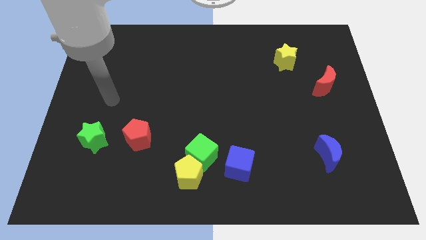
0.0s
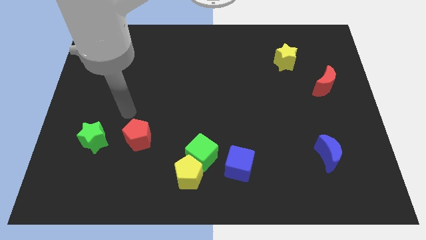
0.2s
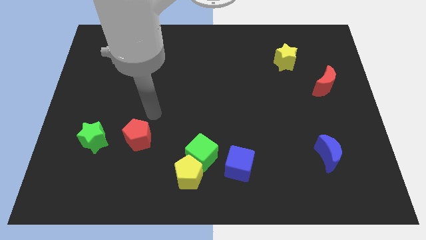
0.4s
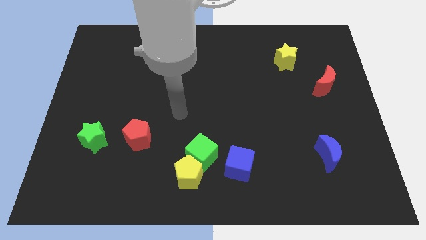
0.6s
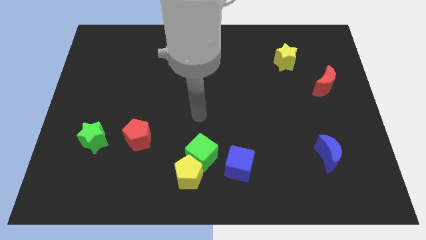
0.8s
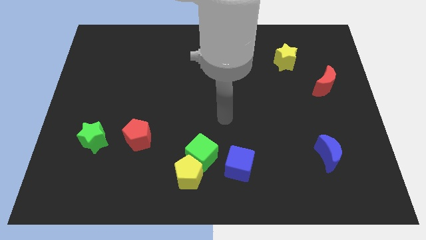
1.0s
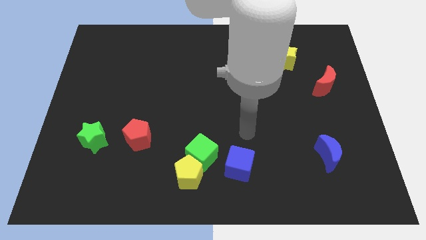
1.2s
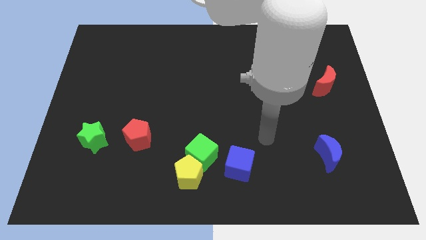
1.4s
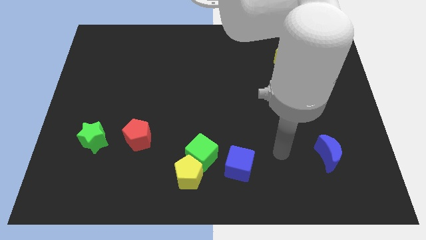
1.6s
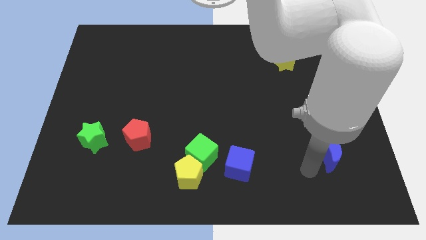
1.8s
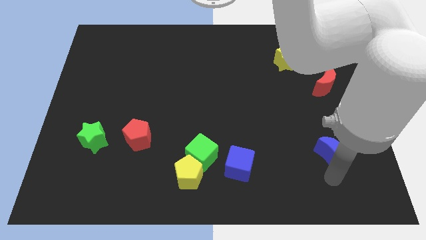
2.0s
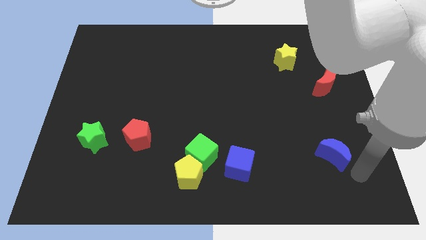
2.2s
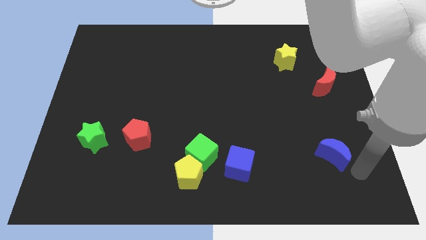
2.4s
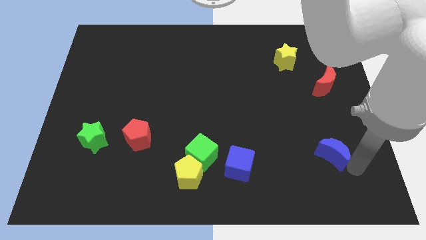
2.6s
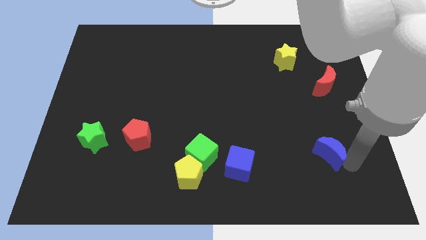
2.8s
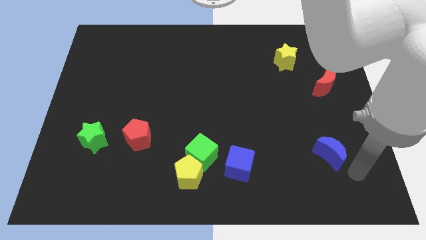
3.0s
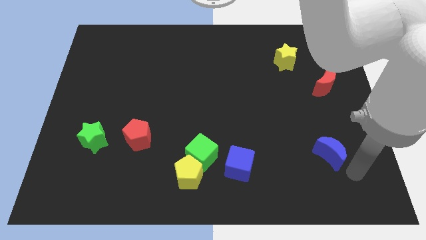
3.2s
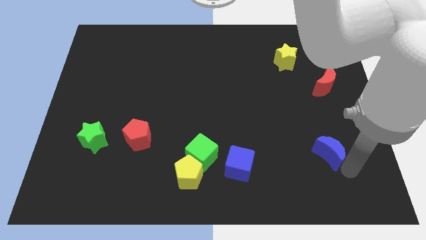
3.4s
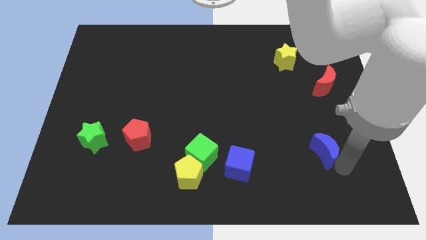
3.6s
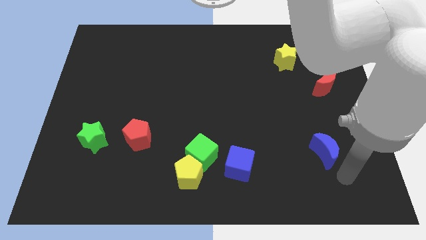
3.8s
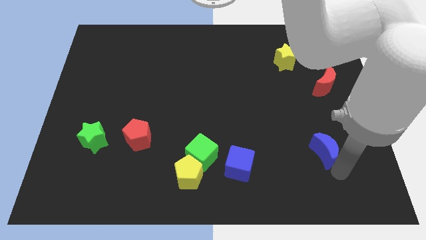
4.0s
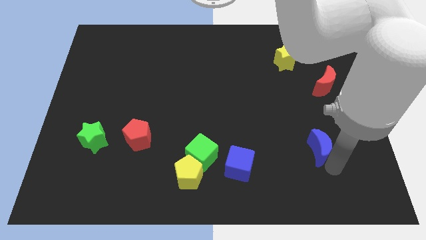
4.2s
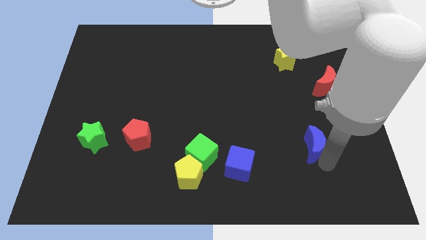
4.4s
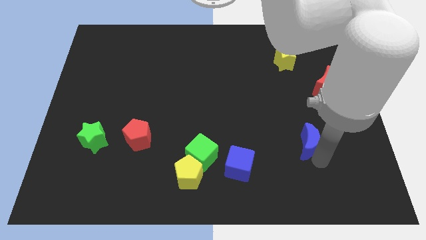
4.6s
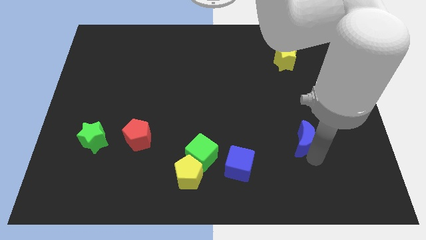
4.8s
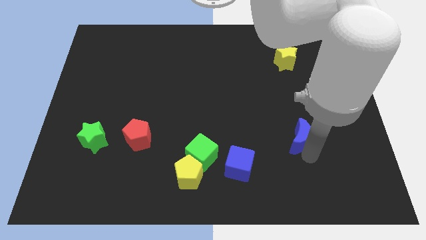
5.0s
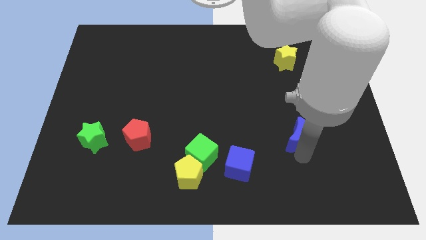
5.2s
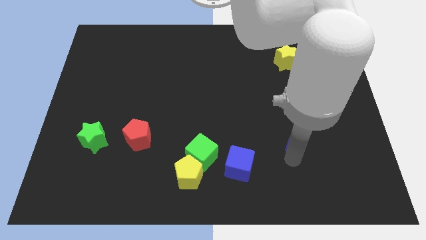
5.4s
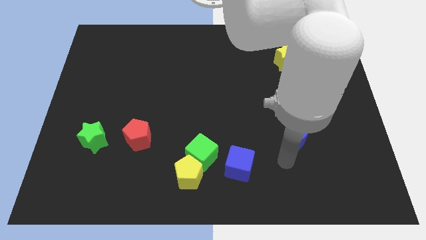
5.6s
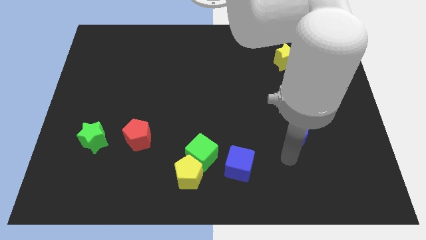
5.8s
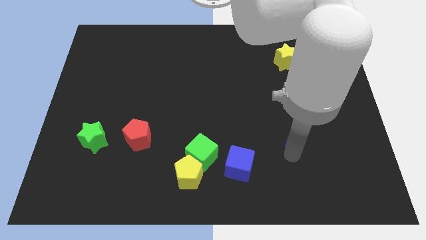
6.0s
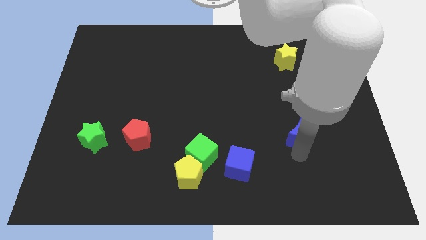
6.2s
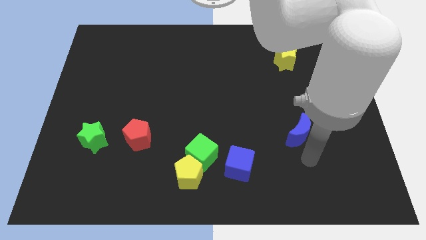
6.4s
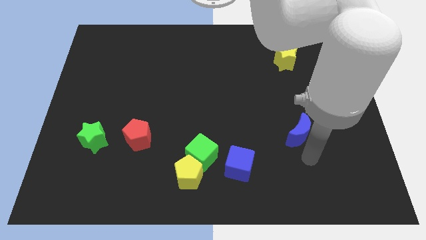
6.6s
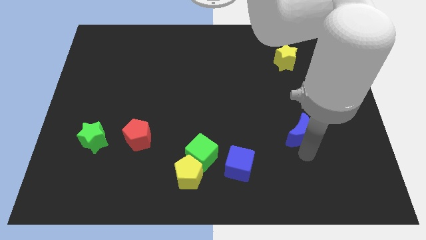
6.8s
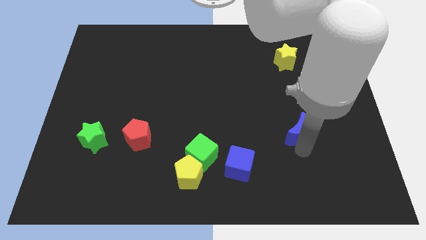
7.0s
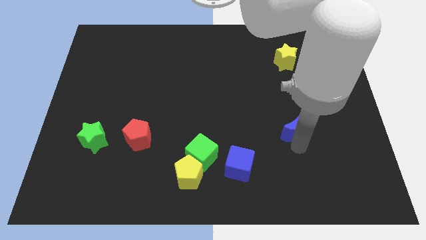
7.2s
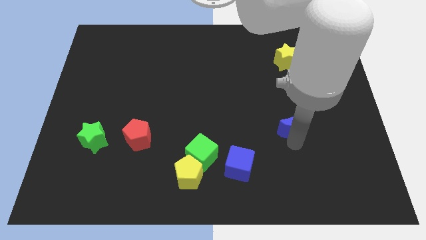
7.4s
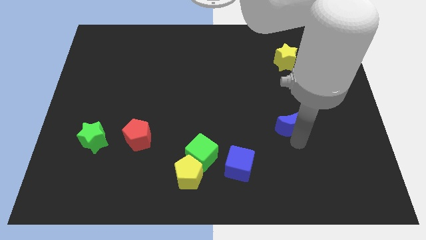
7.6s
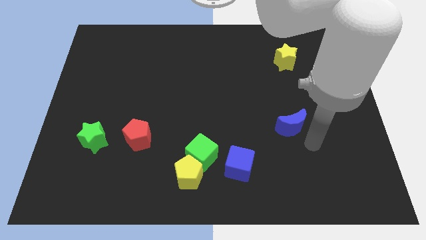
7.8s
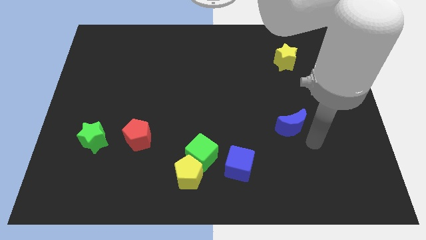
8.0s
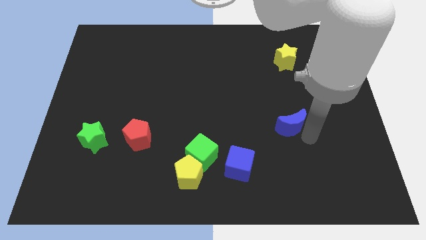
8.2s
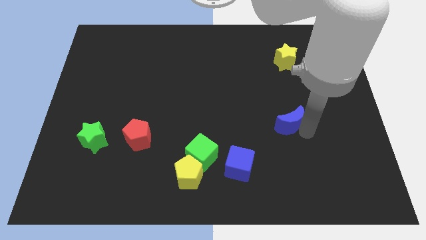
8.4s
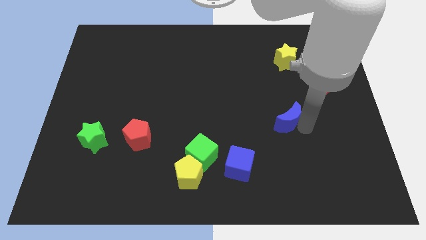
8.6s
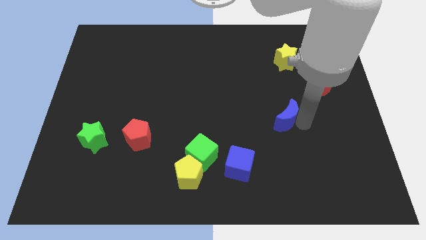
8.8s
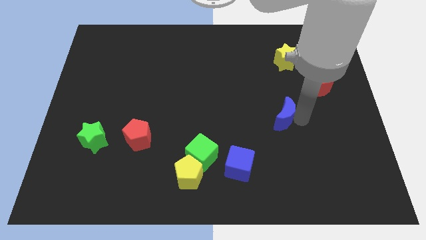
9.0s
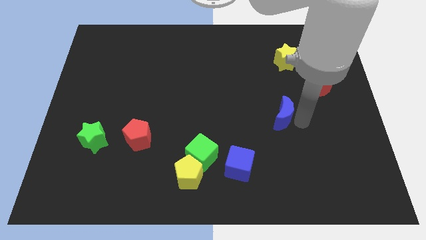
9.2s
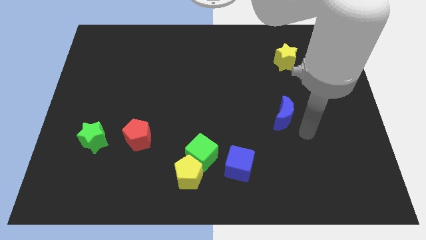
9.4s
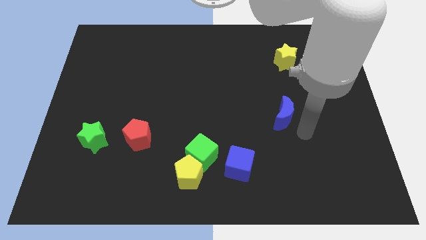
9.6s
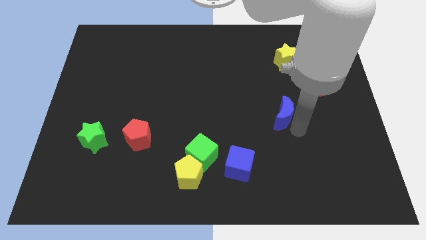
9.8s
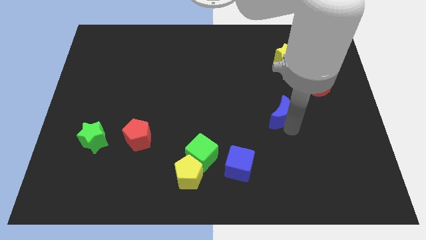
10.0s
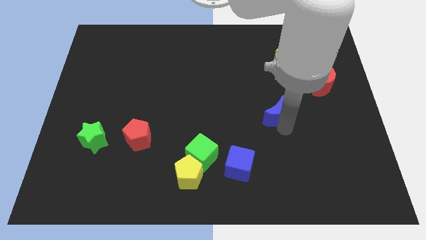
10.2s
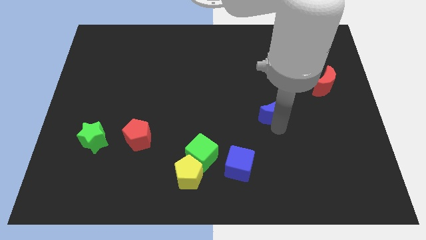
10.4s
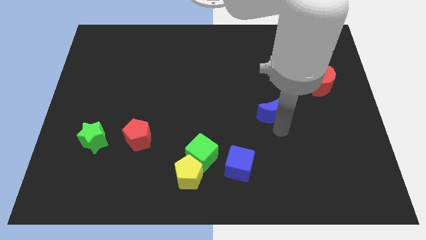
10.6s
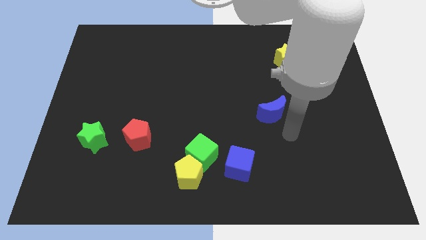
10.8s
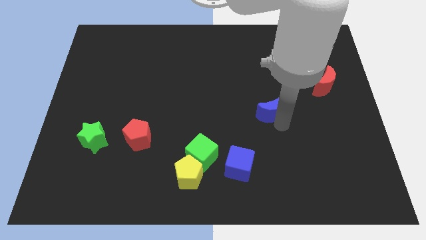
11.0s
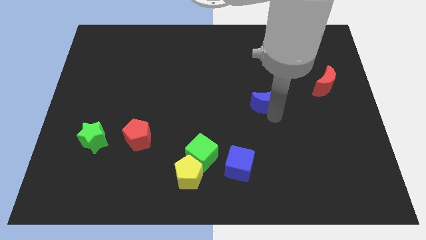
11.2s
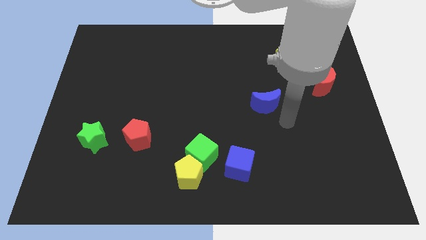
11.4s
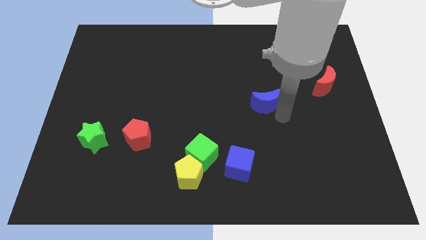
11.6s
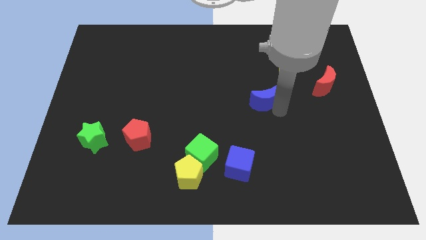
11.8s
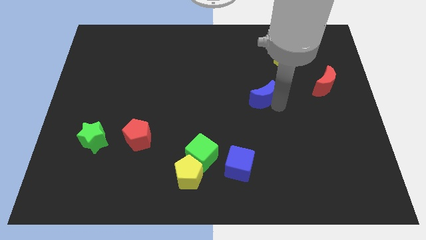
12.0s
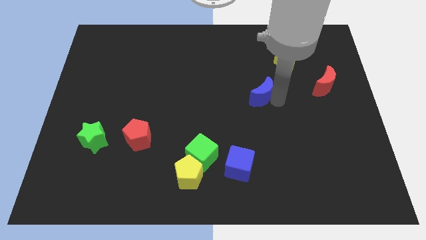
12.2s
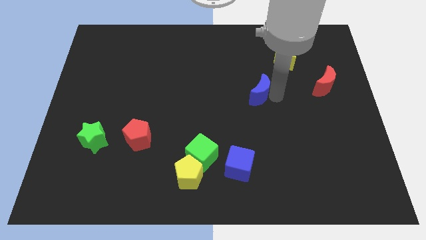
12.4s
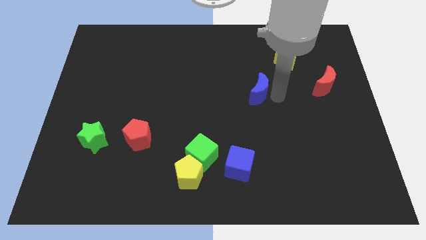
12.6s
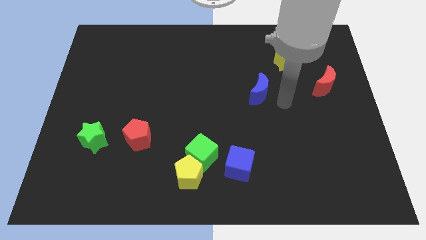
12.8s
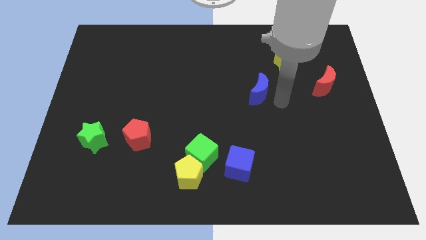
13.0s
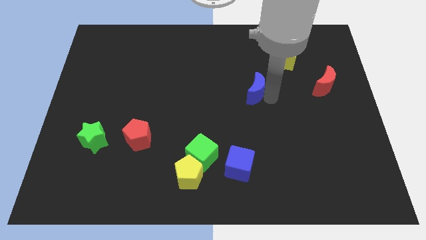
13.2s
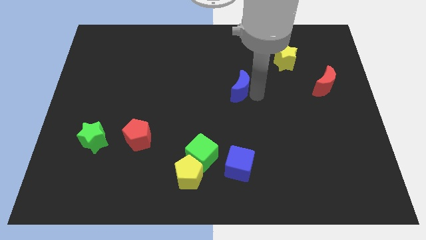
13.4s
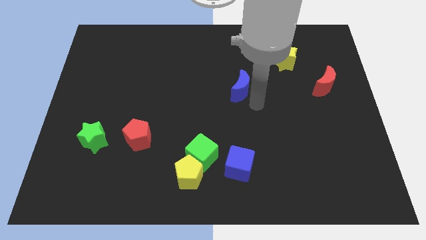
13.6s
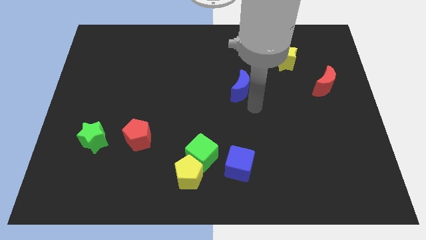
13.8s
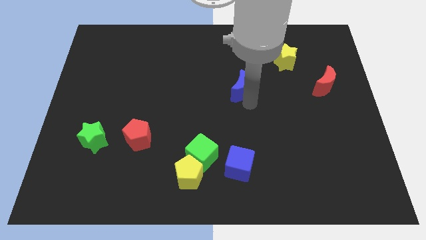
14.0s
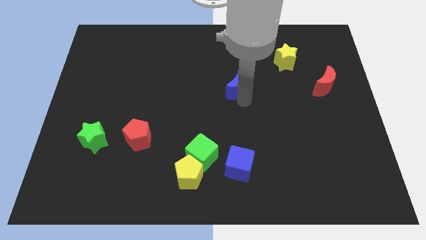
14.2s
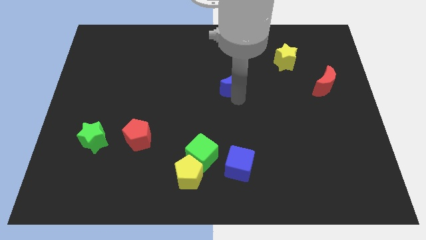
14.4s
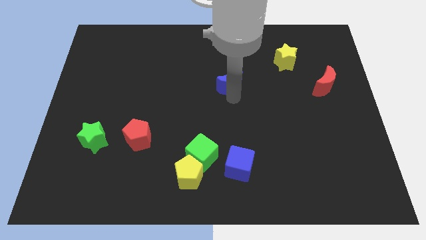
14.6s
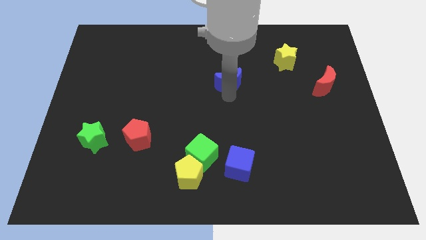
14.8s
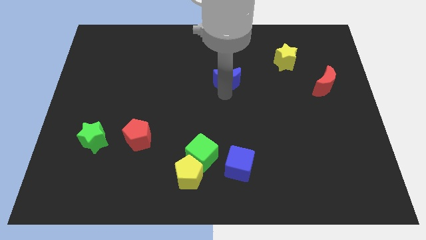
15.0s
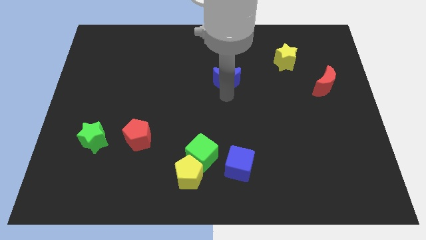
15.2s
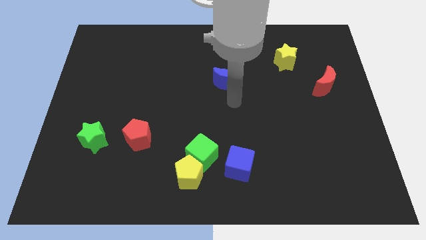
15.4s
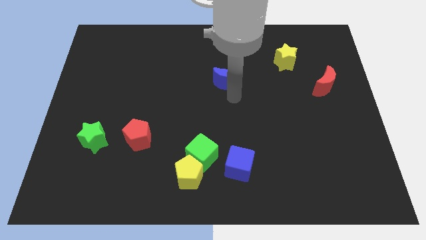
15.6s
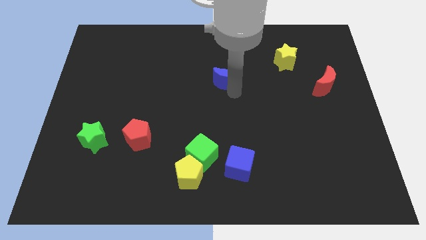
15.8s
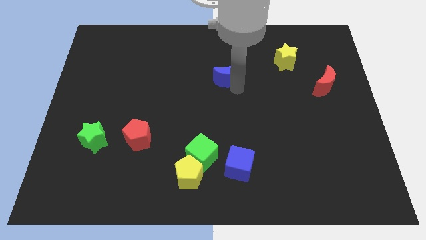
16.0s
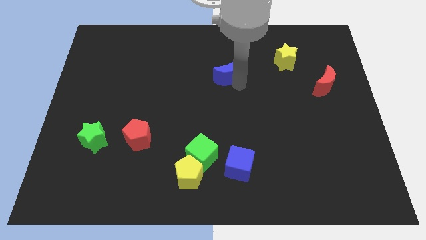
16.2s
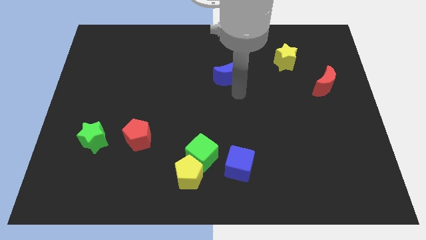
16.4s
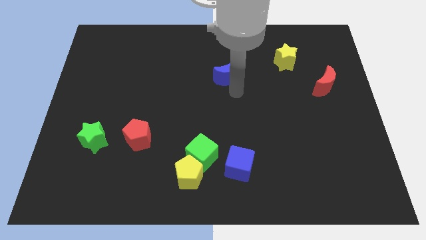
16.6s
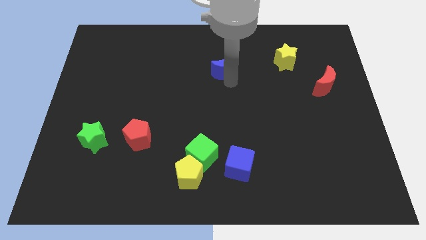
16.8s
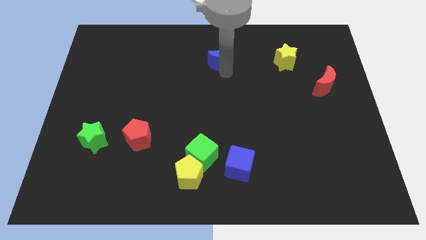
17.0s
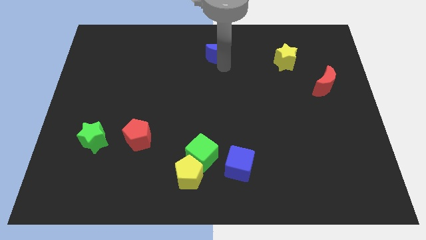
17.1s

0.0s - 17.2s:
move the blue moon to the towards your base
